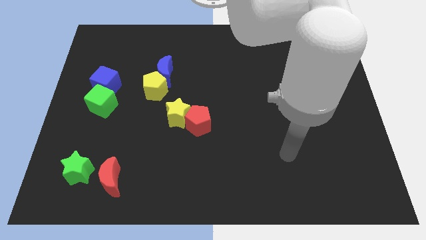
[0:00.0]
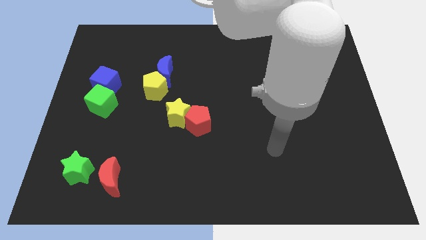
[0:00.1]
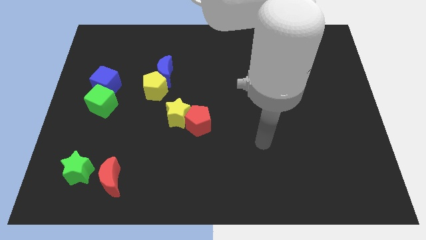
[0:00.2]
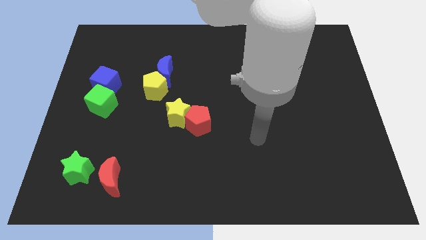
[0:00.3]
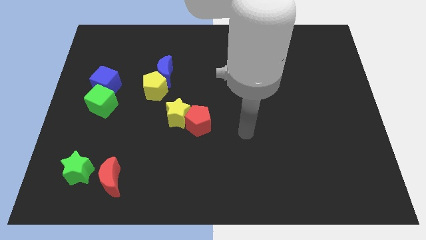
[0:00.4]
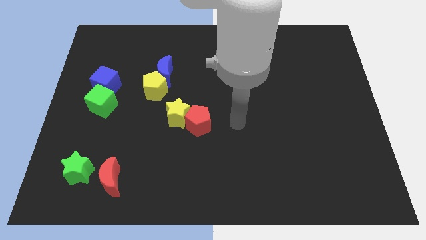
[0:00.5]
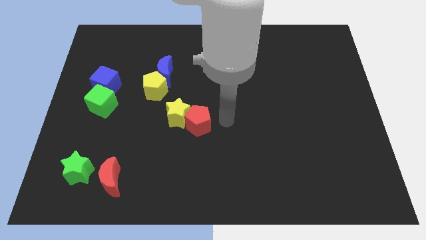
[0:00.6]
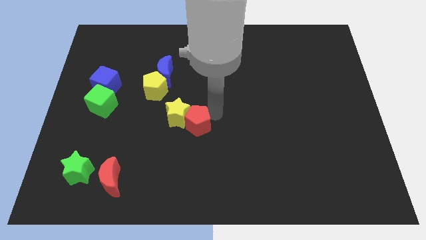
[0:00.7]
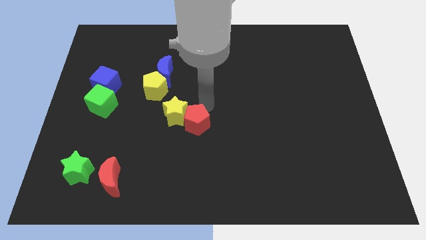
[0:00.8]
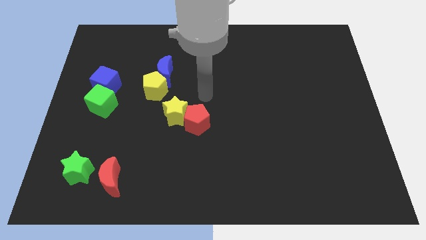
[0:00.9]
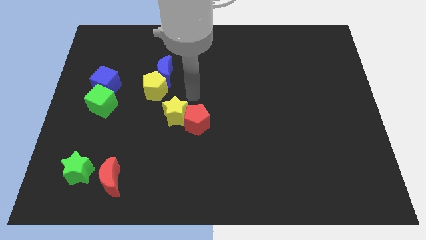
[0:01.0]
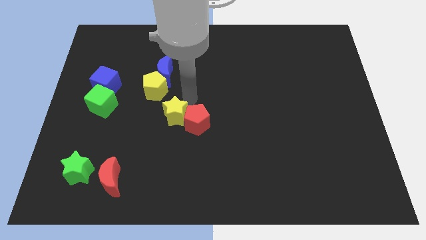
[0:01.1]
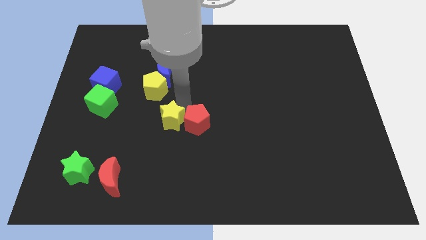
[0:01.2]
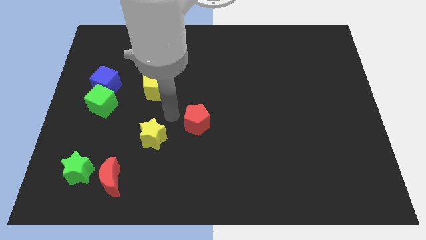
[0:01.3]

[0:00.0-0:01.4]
pull the red pentagon apart from the yellow star

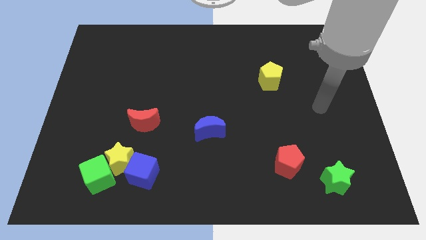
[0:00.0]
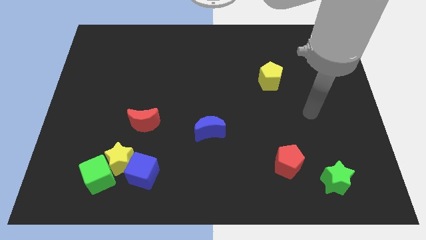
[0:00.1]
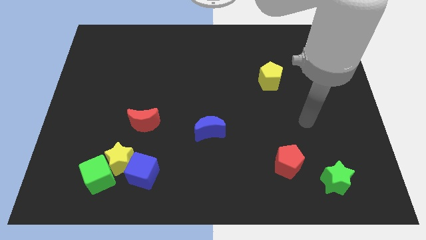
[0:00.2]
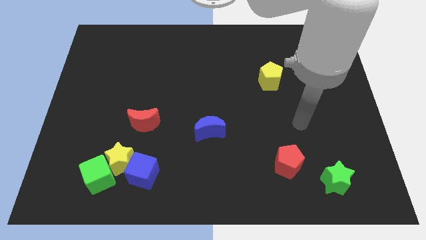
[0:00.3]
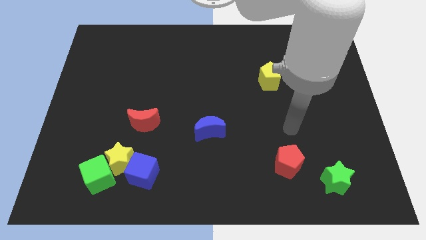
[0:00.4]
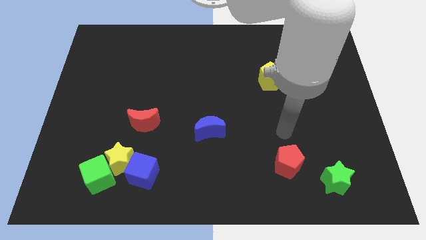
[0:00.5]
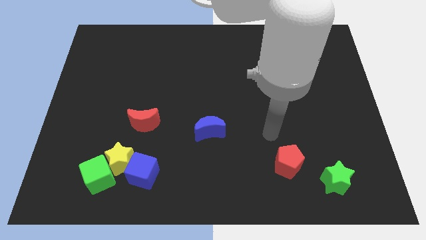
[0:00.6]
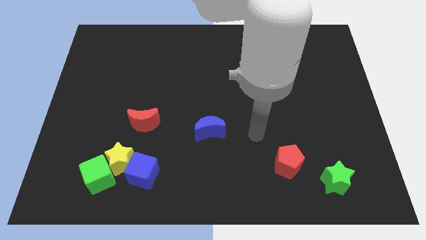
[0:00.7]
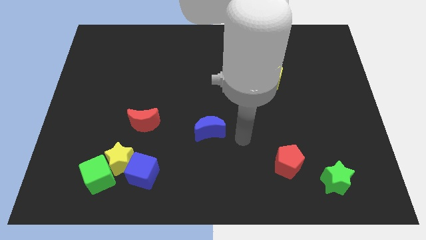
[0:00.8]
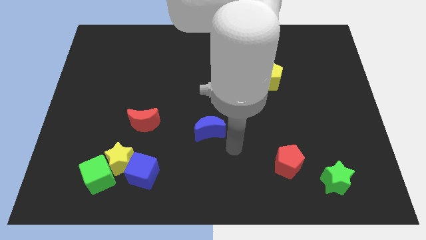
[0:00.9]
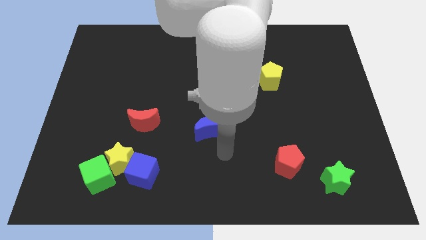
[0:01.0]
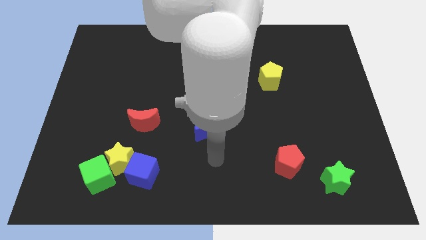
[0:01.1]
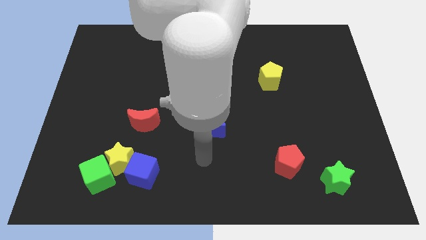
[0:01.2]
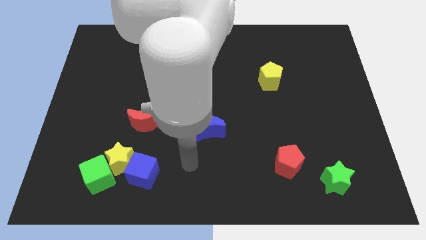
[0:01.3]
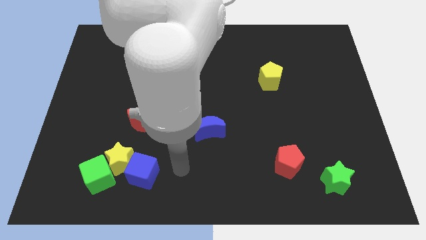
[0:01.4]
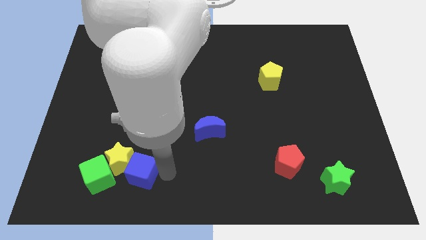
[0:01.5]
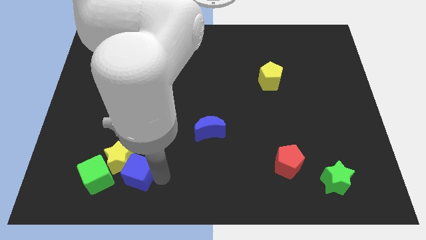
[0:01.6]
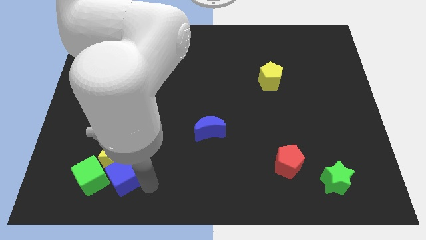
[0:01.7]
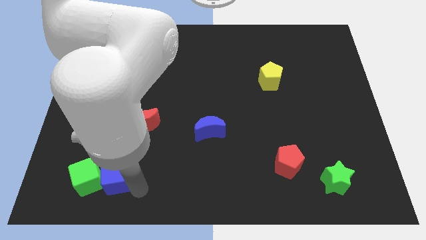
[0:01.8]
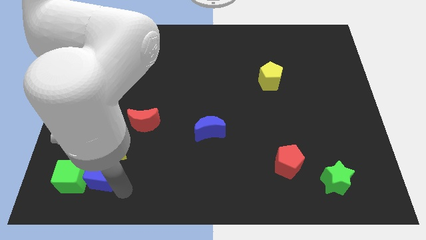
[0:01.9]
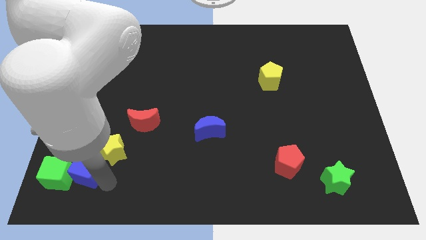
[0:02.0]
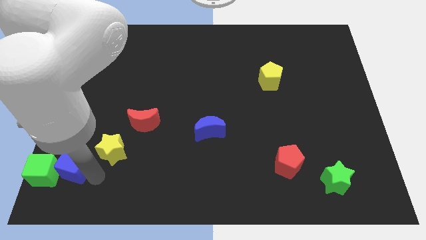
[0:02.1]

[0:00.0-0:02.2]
separate the yellow star from the blue cube and green cube

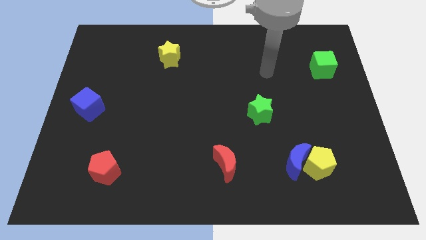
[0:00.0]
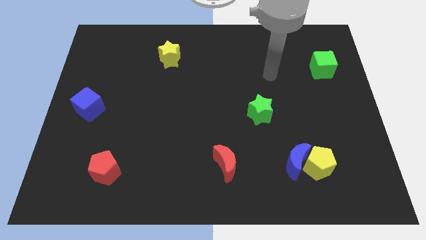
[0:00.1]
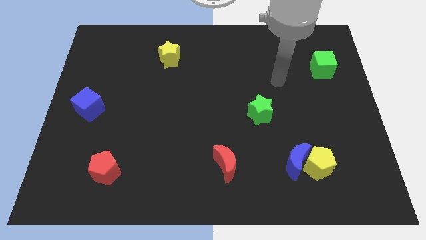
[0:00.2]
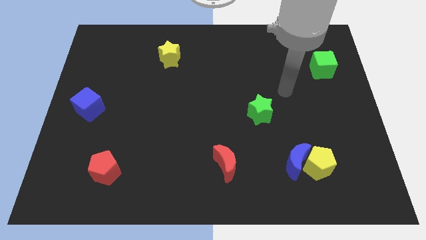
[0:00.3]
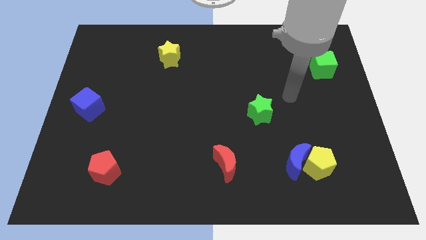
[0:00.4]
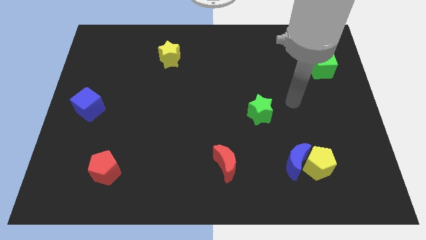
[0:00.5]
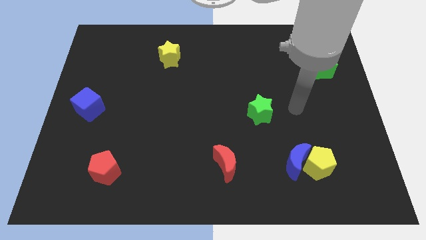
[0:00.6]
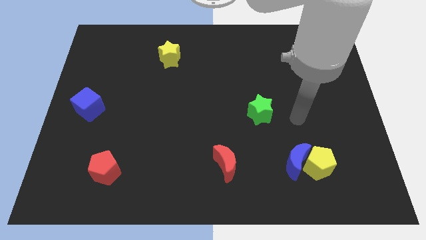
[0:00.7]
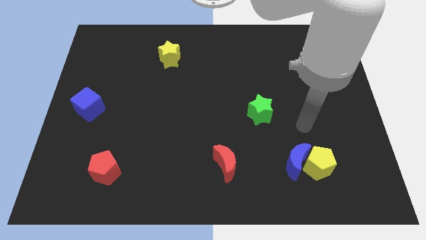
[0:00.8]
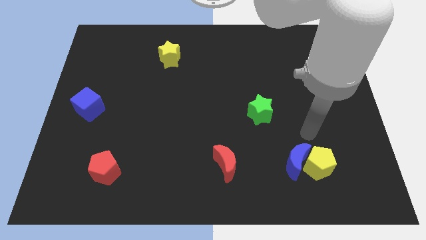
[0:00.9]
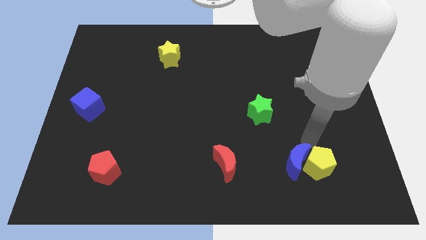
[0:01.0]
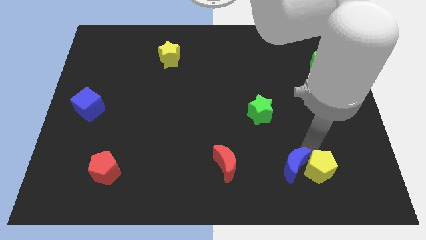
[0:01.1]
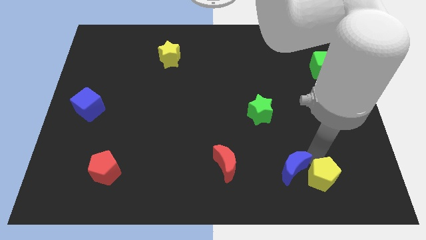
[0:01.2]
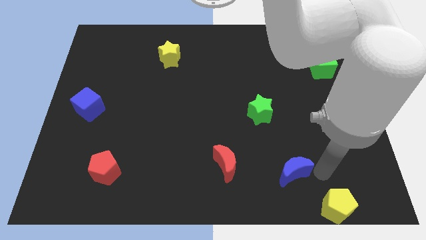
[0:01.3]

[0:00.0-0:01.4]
pull the blue moon apart from the yellow pentagon

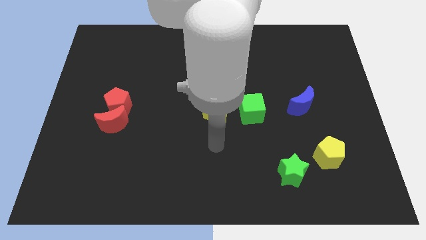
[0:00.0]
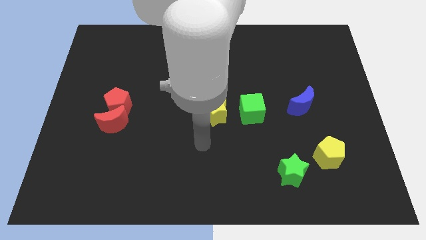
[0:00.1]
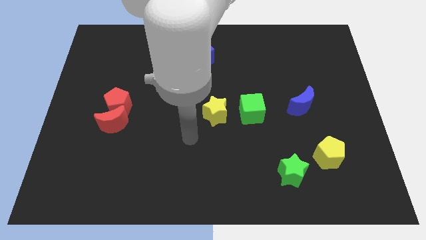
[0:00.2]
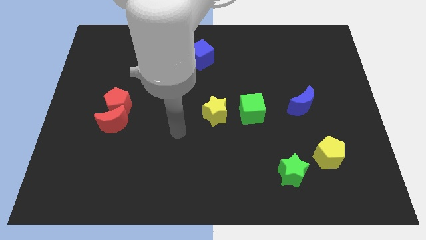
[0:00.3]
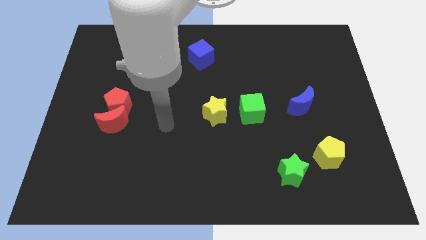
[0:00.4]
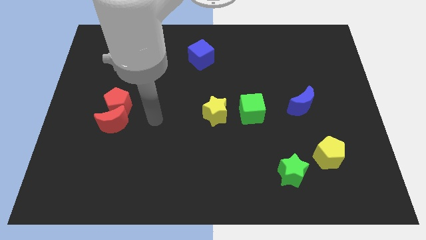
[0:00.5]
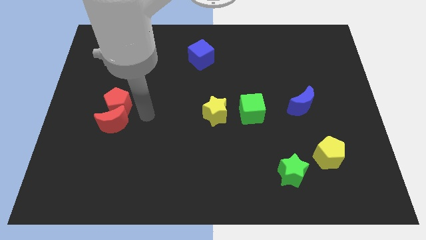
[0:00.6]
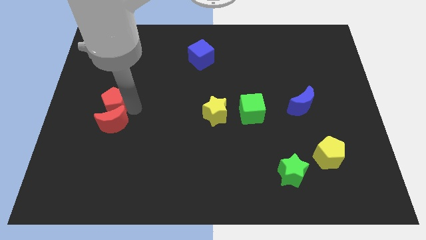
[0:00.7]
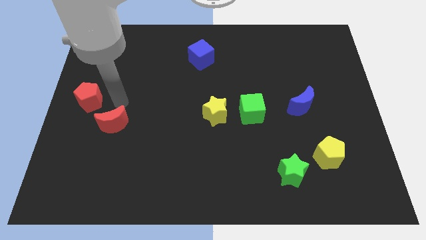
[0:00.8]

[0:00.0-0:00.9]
move the red moon away from the red pentagon

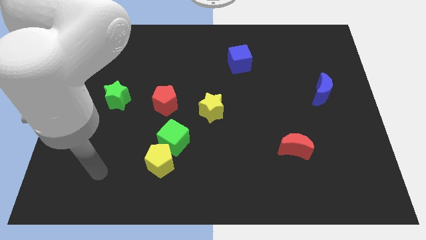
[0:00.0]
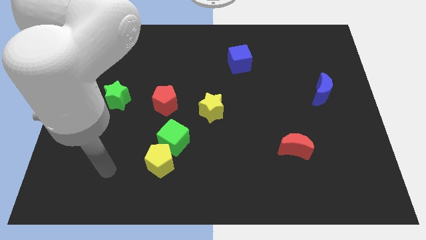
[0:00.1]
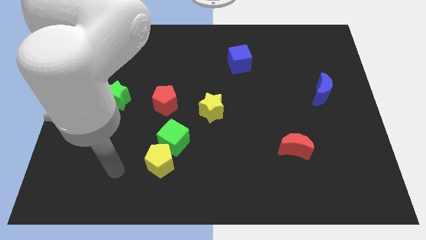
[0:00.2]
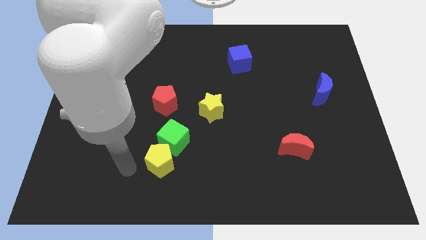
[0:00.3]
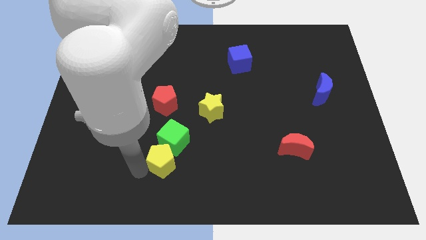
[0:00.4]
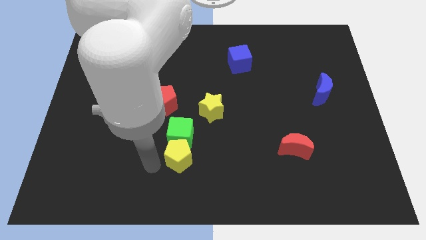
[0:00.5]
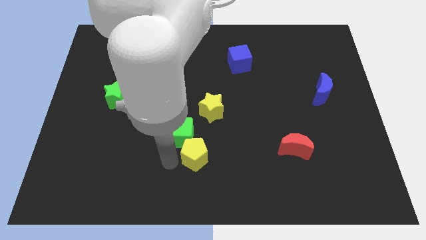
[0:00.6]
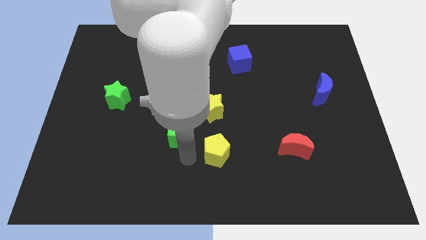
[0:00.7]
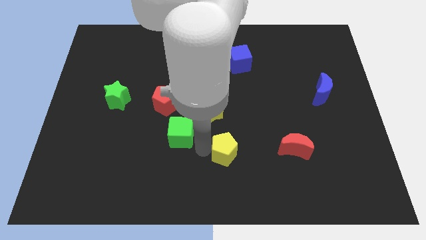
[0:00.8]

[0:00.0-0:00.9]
separate the green cube from the yellow pentagon

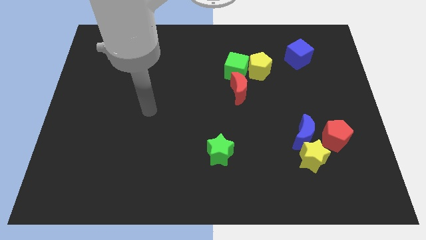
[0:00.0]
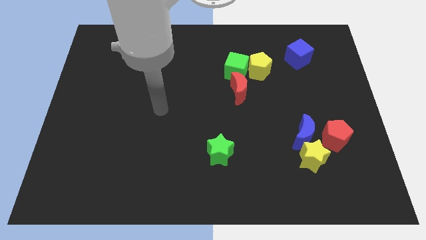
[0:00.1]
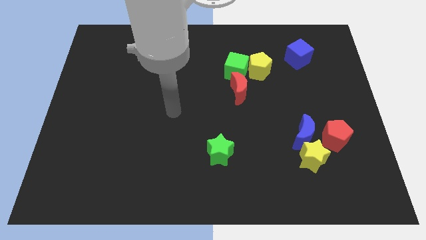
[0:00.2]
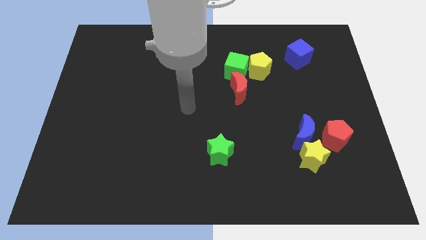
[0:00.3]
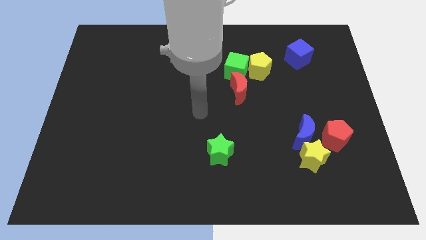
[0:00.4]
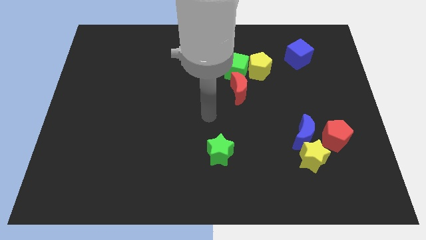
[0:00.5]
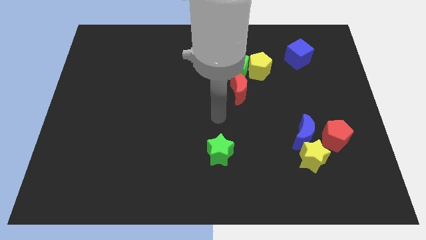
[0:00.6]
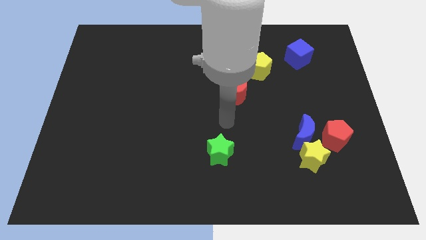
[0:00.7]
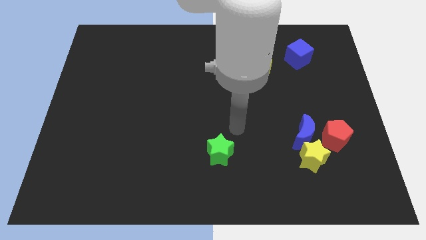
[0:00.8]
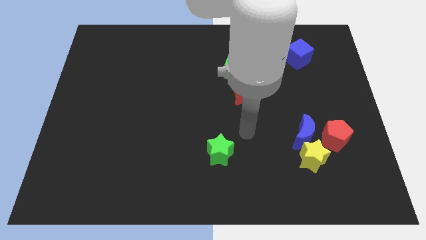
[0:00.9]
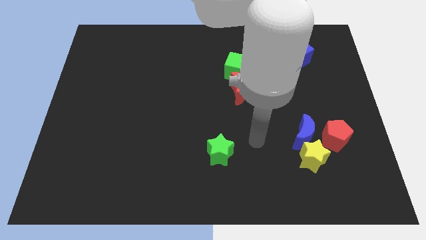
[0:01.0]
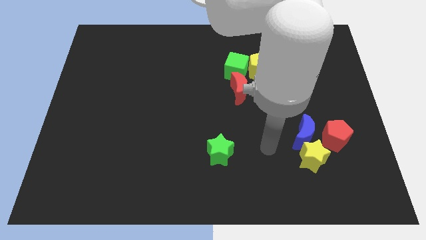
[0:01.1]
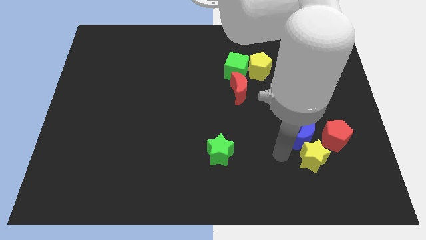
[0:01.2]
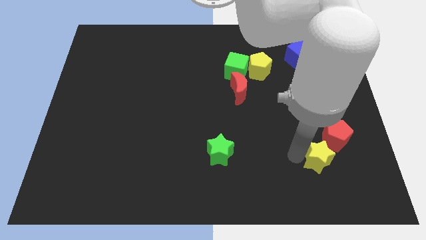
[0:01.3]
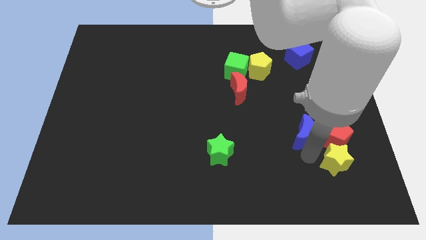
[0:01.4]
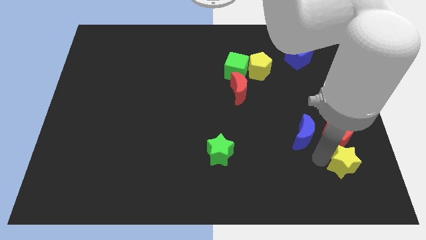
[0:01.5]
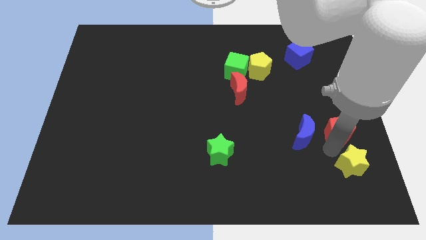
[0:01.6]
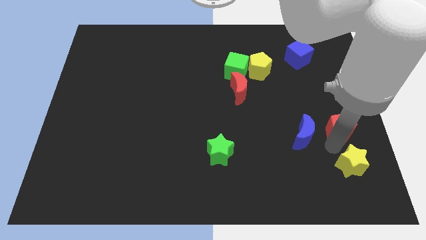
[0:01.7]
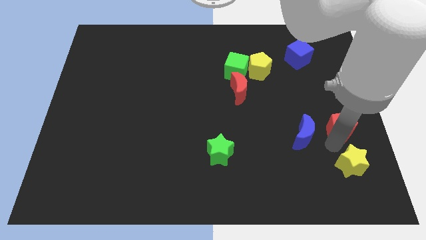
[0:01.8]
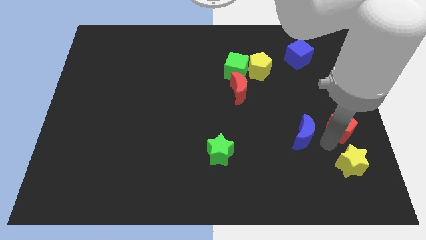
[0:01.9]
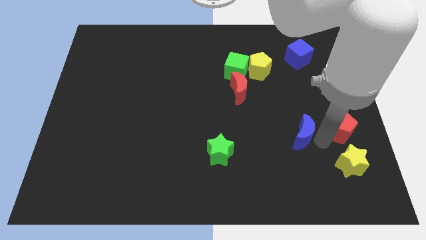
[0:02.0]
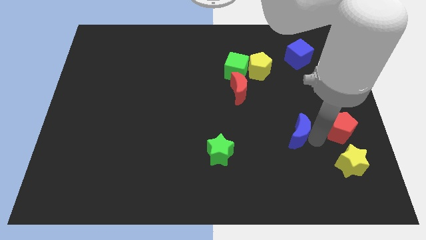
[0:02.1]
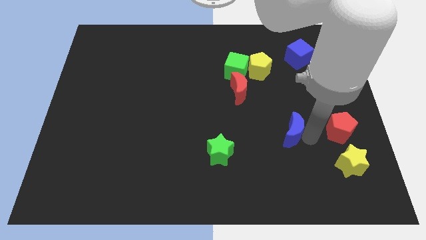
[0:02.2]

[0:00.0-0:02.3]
pull the blue moon apart from the yellow star and red pentagon

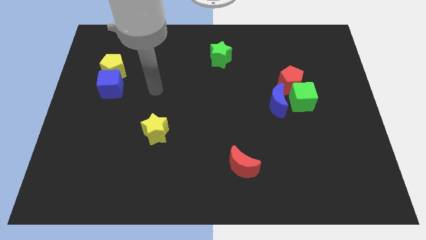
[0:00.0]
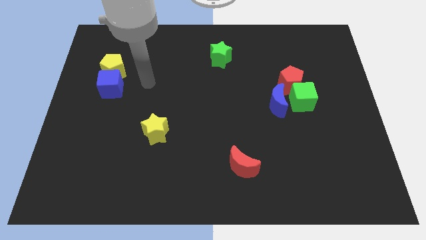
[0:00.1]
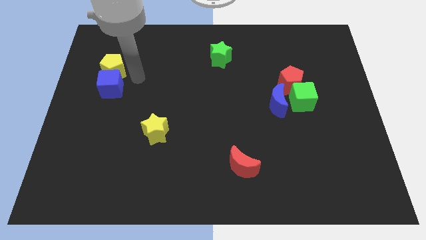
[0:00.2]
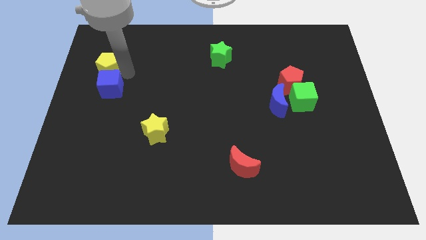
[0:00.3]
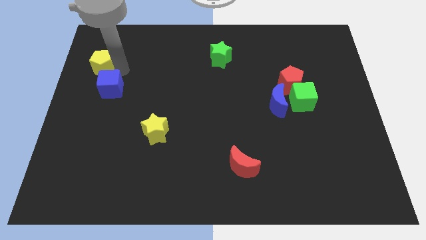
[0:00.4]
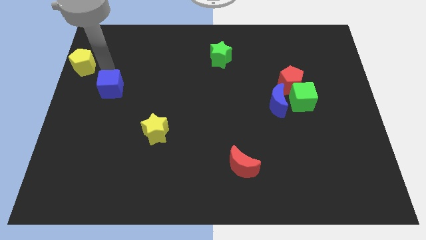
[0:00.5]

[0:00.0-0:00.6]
move the blue cube away from the yellow pentagon
